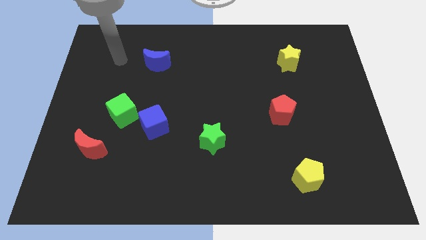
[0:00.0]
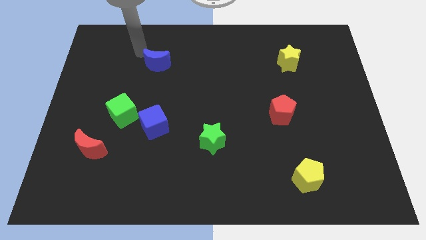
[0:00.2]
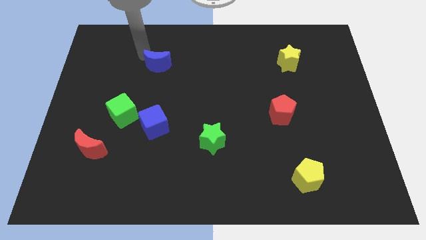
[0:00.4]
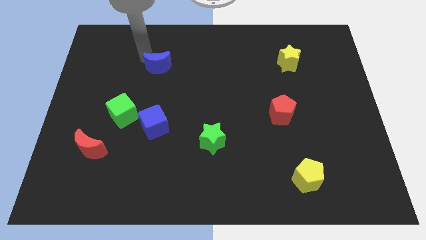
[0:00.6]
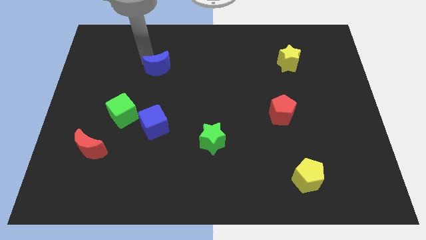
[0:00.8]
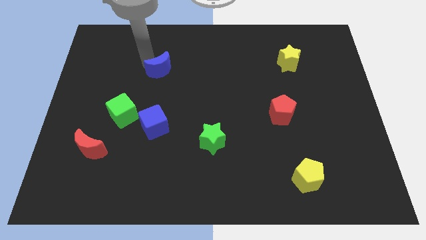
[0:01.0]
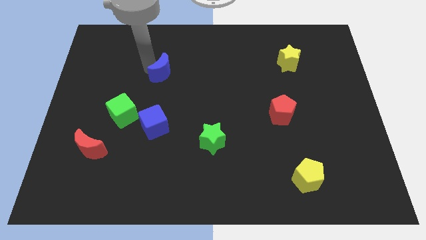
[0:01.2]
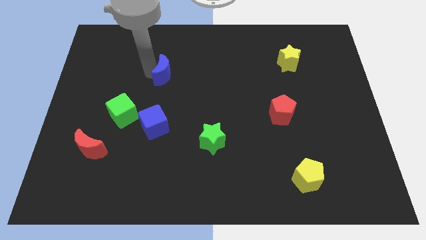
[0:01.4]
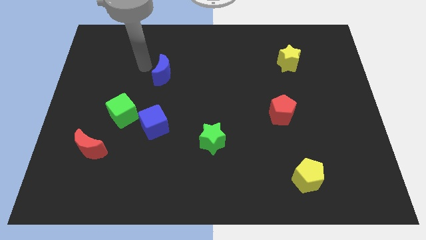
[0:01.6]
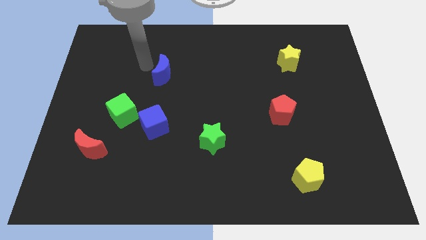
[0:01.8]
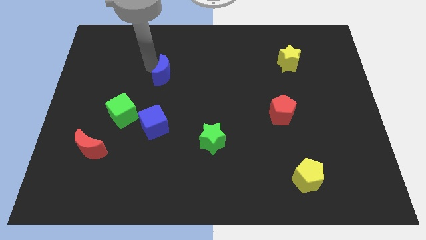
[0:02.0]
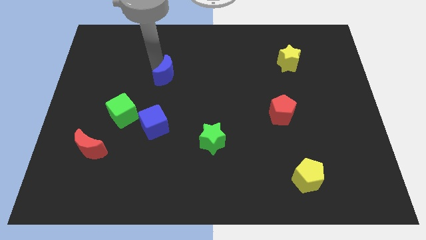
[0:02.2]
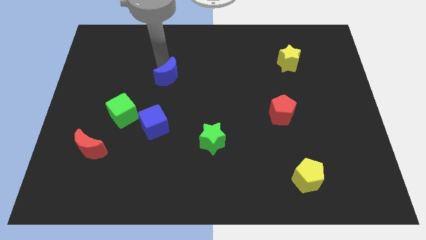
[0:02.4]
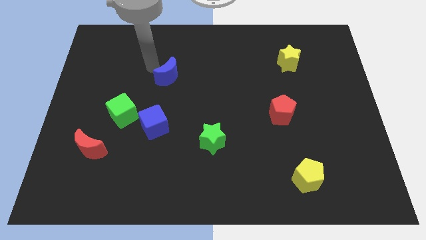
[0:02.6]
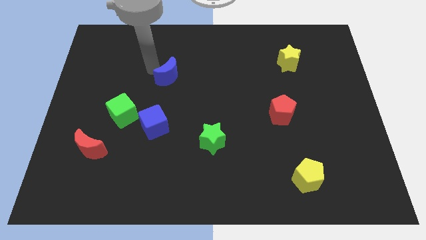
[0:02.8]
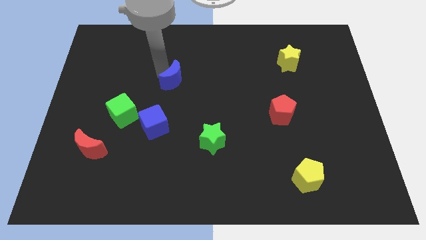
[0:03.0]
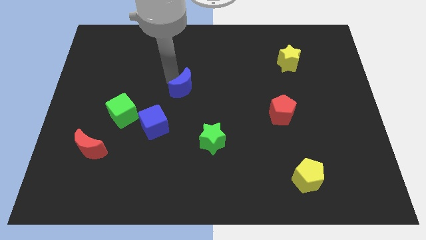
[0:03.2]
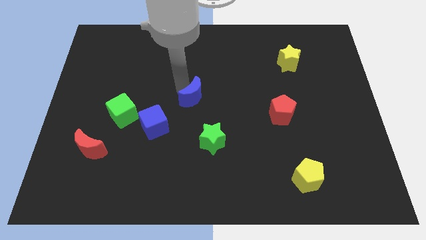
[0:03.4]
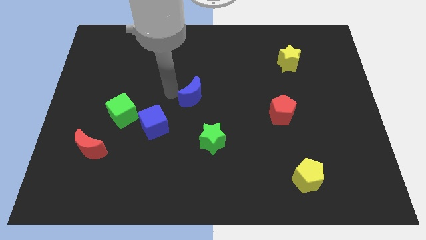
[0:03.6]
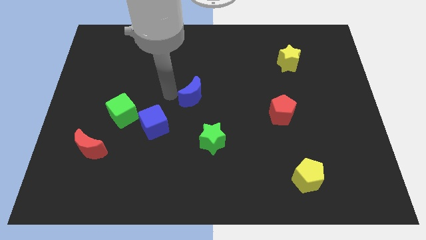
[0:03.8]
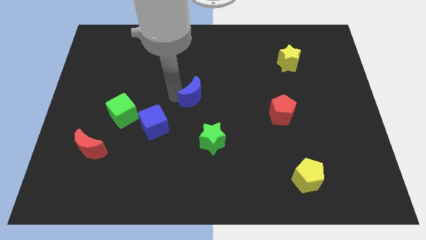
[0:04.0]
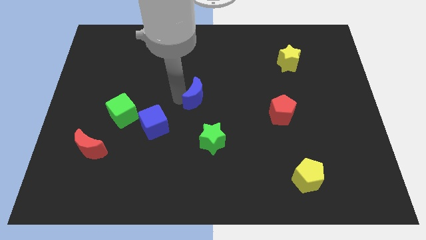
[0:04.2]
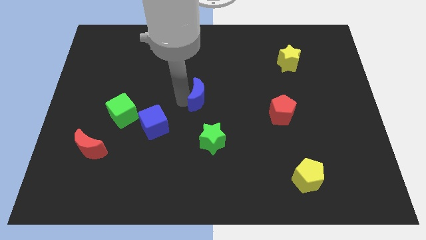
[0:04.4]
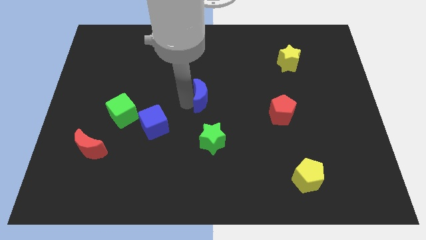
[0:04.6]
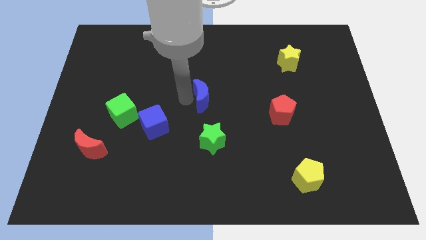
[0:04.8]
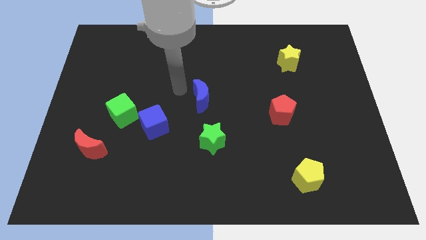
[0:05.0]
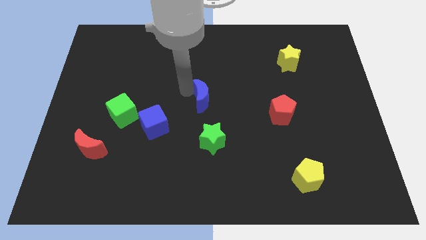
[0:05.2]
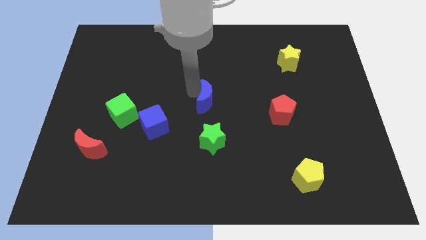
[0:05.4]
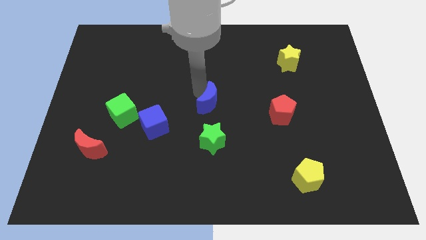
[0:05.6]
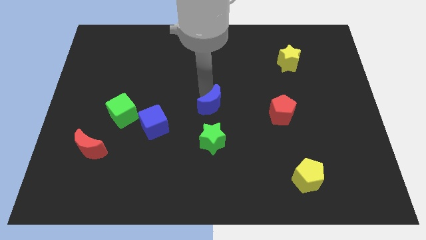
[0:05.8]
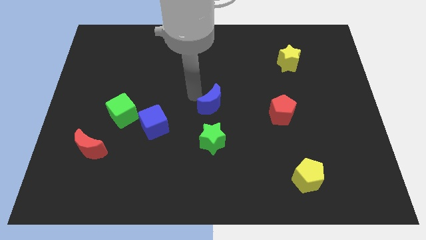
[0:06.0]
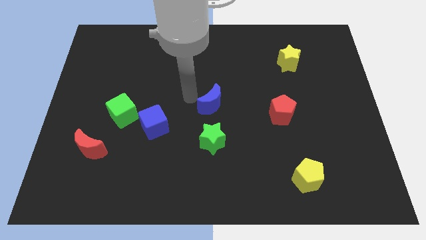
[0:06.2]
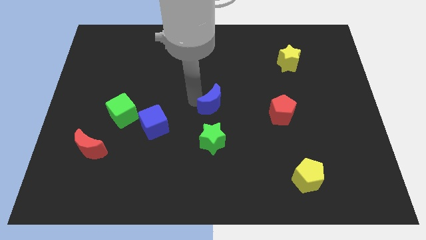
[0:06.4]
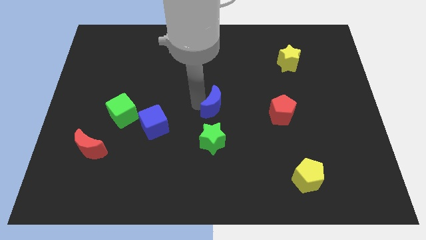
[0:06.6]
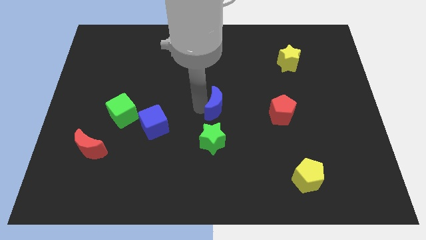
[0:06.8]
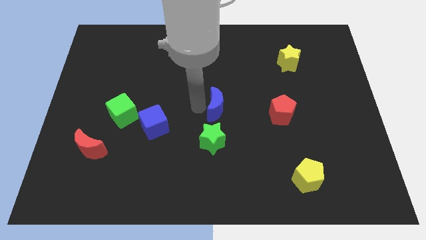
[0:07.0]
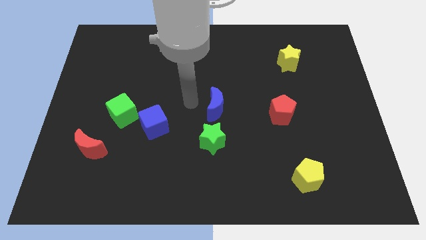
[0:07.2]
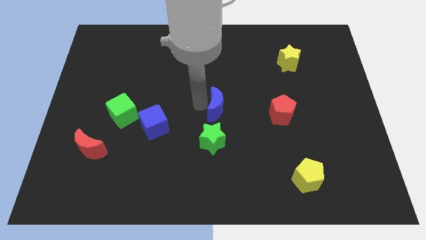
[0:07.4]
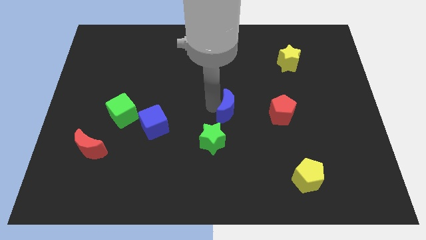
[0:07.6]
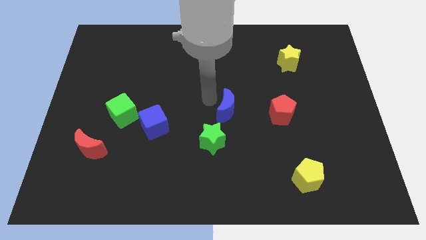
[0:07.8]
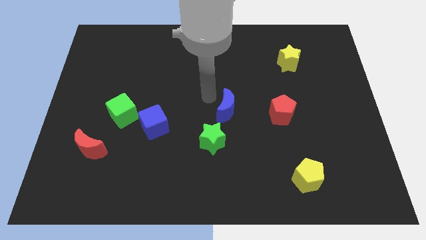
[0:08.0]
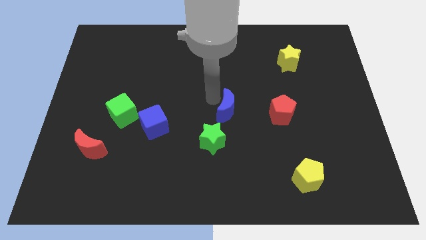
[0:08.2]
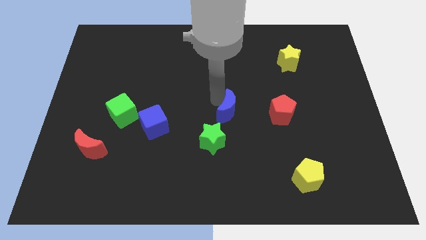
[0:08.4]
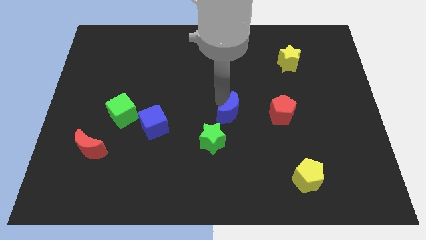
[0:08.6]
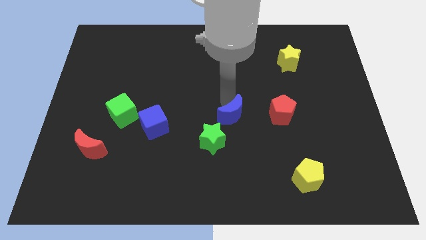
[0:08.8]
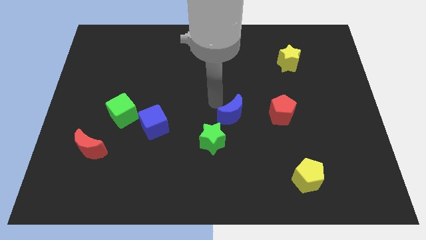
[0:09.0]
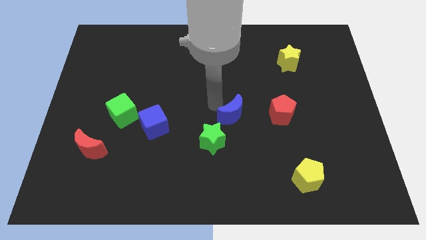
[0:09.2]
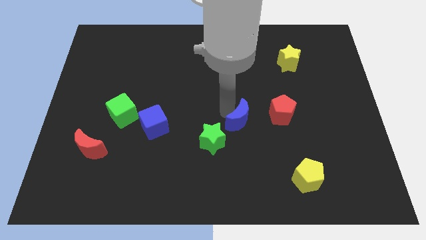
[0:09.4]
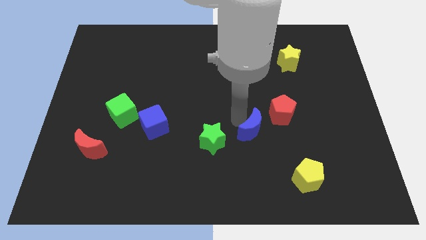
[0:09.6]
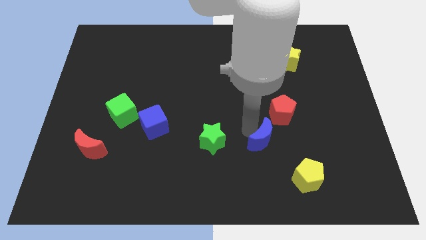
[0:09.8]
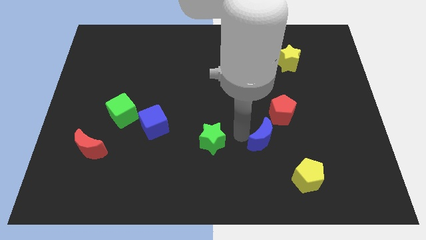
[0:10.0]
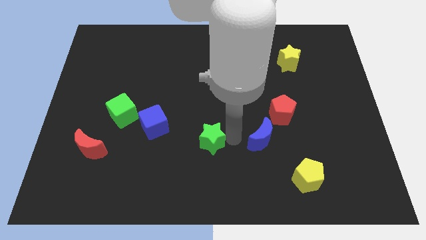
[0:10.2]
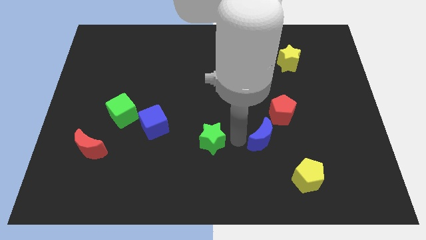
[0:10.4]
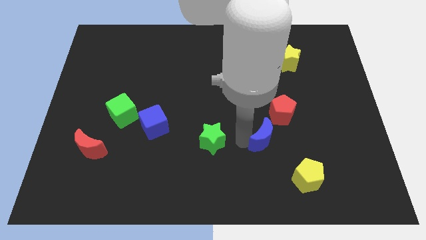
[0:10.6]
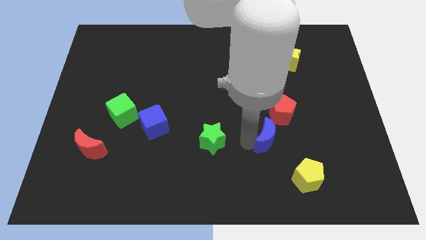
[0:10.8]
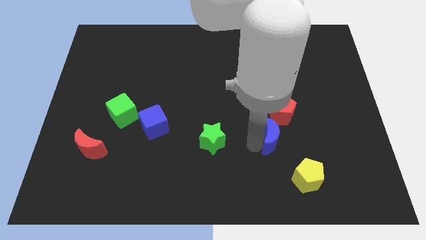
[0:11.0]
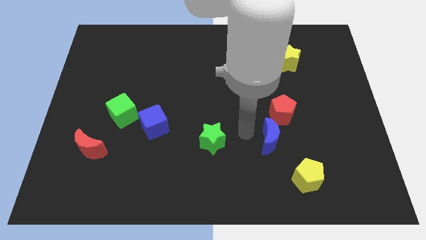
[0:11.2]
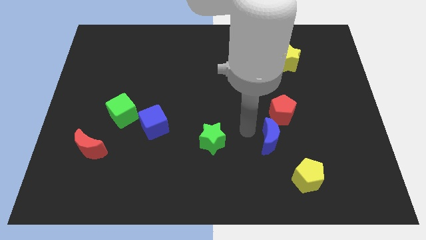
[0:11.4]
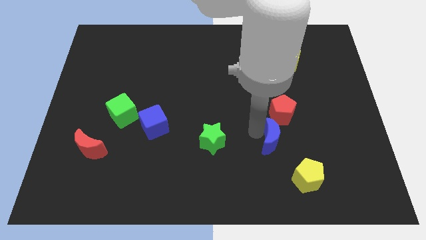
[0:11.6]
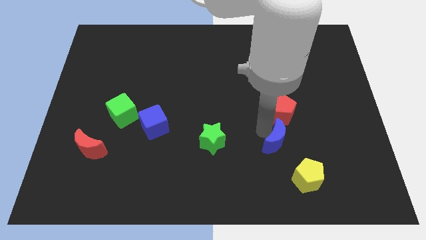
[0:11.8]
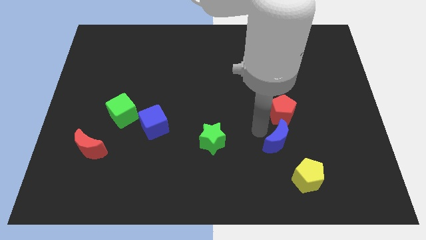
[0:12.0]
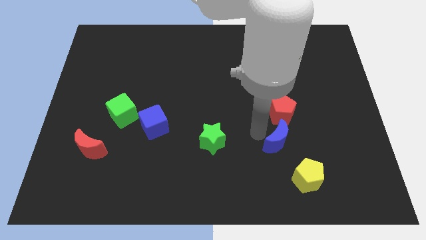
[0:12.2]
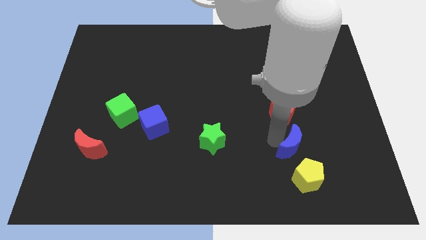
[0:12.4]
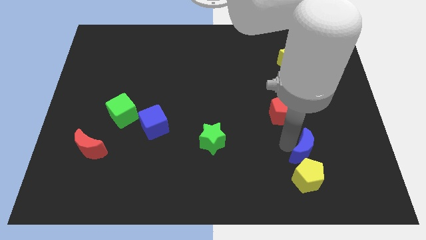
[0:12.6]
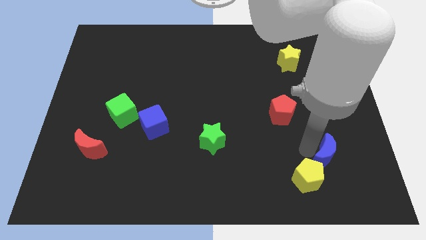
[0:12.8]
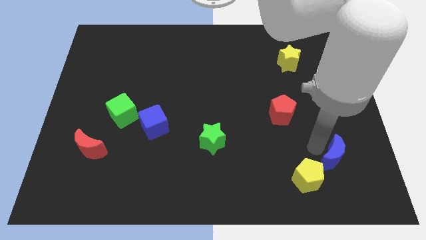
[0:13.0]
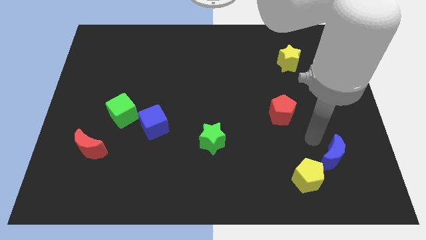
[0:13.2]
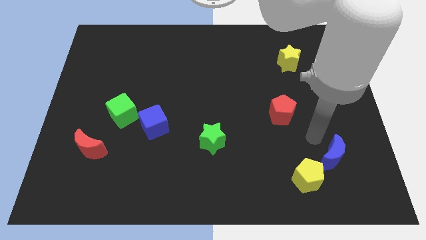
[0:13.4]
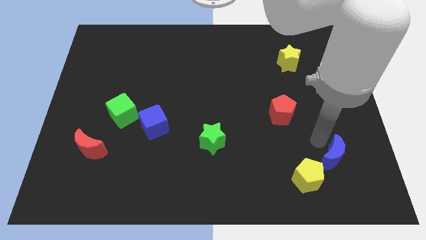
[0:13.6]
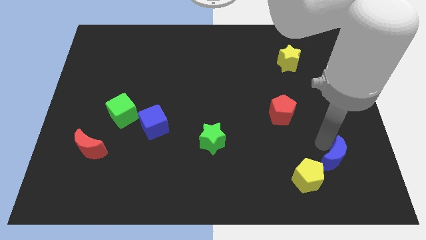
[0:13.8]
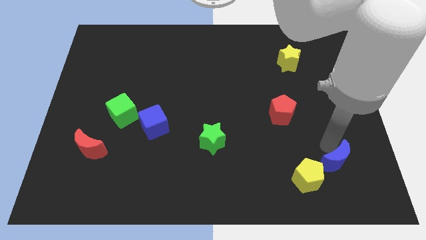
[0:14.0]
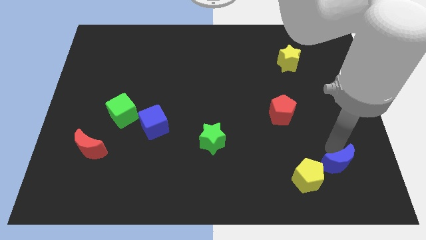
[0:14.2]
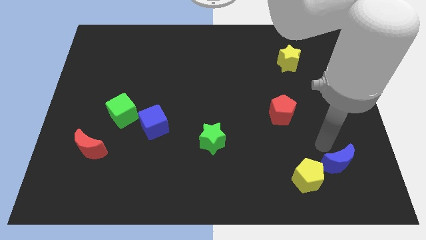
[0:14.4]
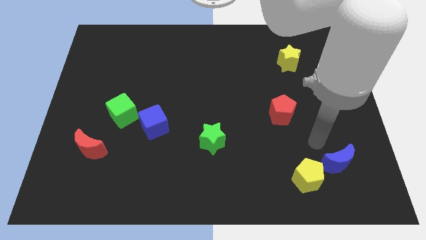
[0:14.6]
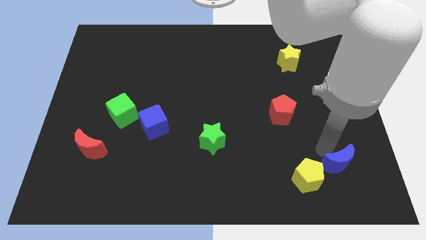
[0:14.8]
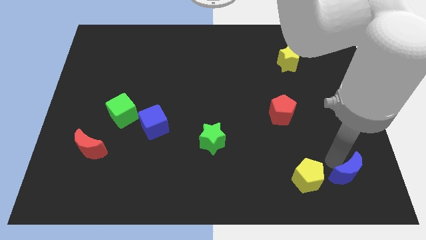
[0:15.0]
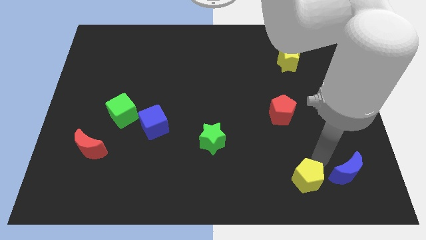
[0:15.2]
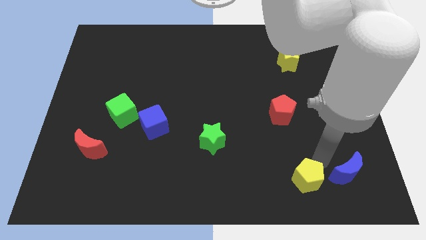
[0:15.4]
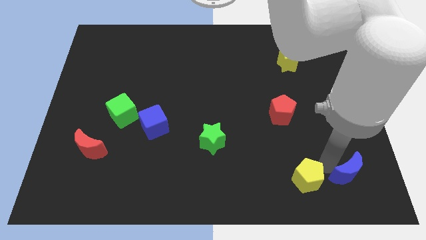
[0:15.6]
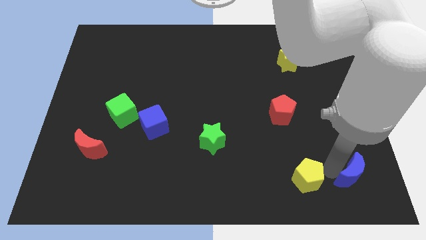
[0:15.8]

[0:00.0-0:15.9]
slide the blue moon to the bottom right corner
